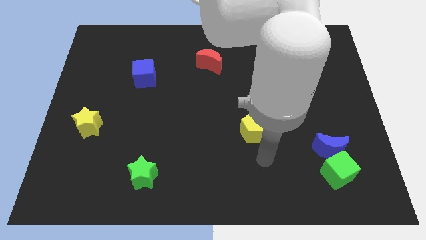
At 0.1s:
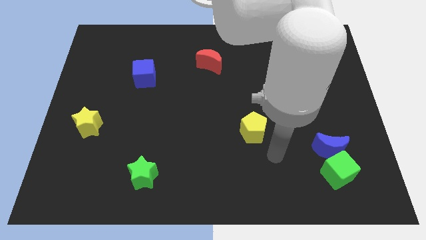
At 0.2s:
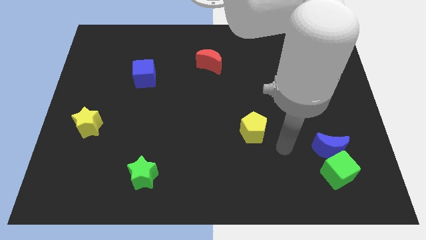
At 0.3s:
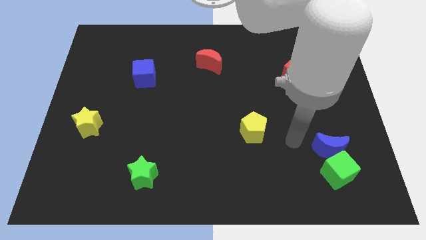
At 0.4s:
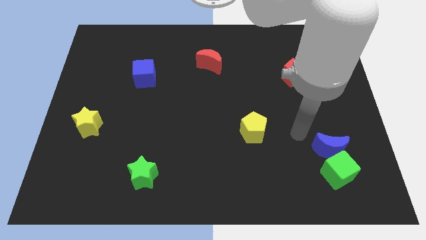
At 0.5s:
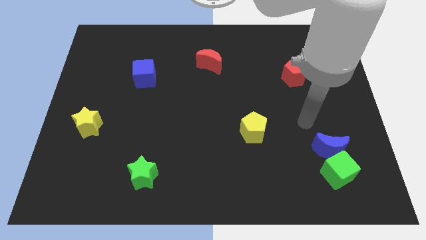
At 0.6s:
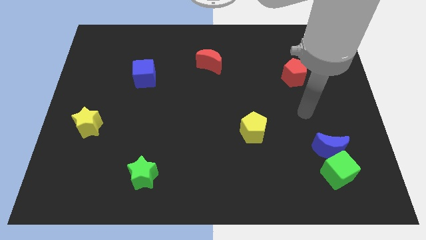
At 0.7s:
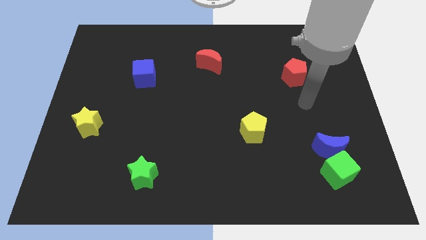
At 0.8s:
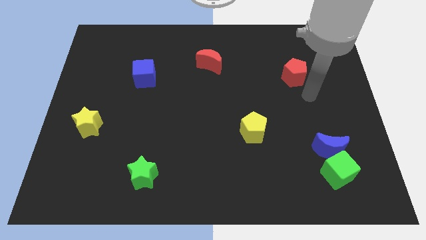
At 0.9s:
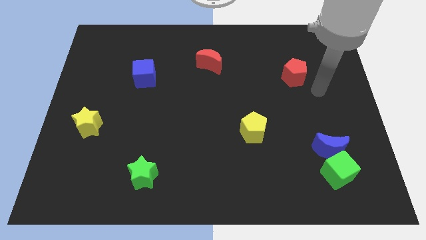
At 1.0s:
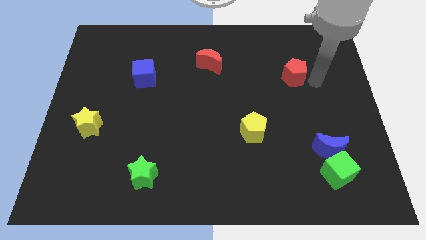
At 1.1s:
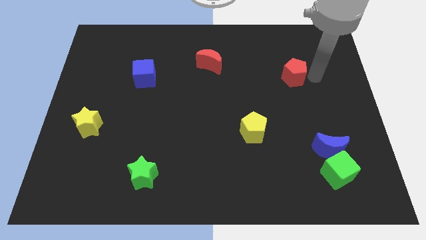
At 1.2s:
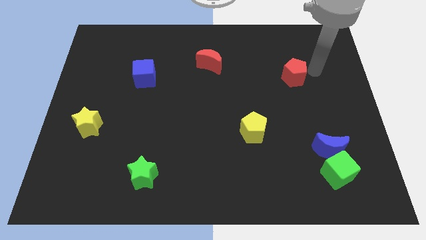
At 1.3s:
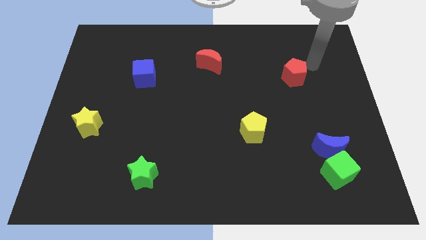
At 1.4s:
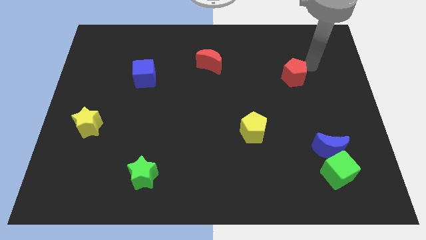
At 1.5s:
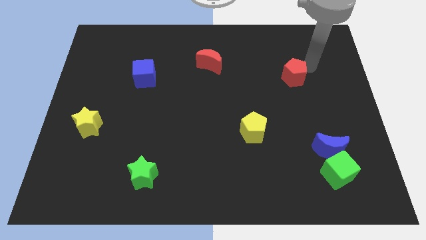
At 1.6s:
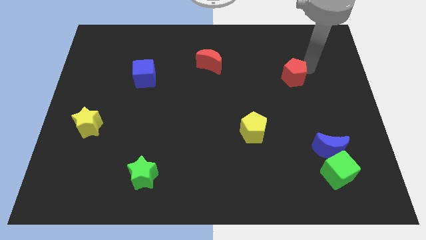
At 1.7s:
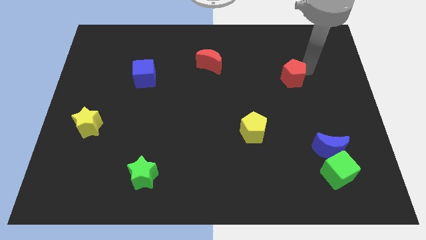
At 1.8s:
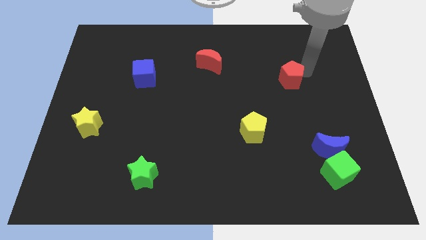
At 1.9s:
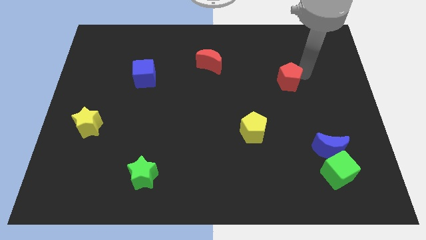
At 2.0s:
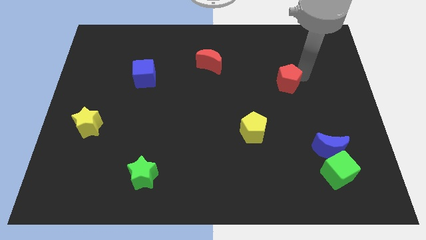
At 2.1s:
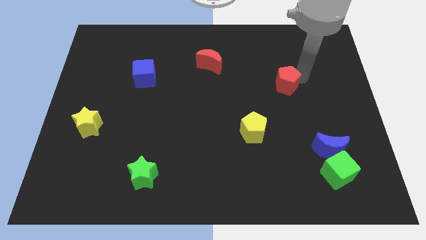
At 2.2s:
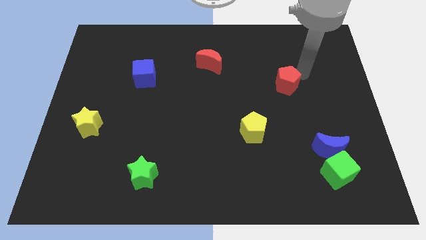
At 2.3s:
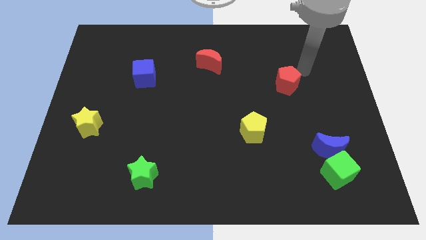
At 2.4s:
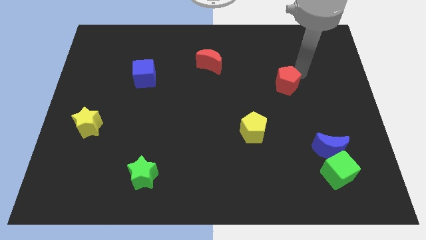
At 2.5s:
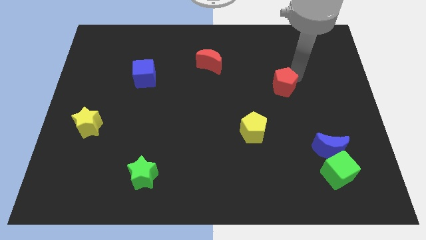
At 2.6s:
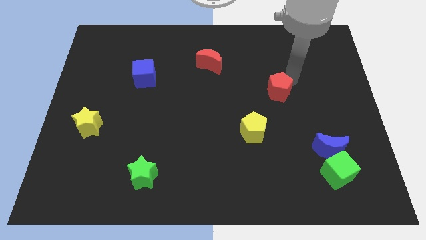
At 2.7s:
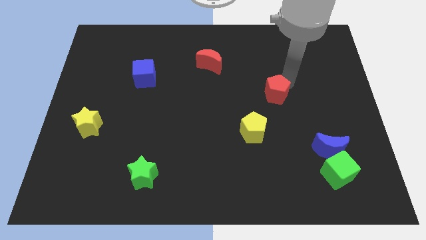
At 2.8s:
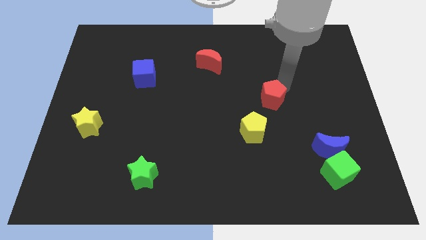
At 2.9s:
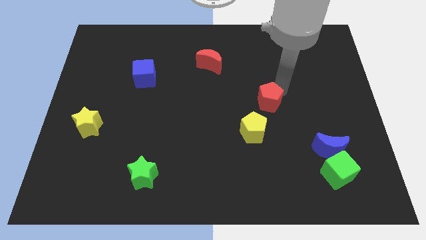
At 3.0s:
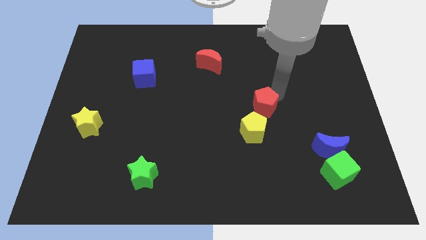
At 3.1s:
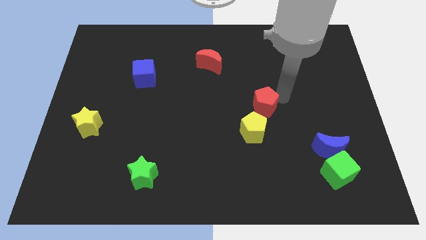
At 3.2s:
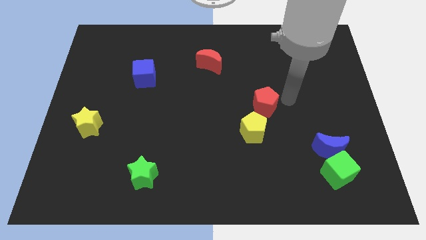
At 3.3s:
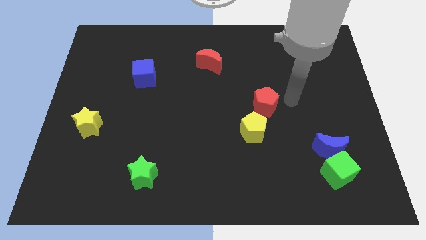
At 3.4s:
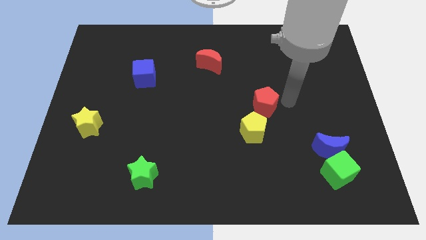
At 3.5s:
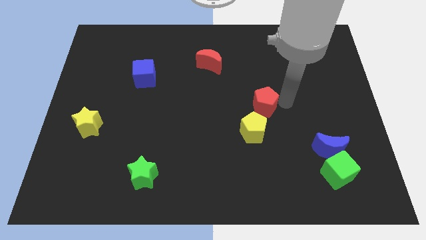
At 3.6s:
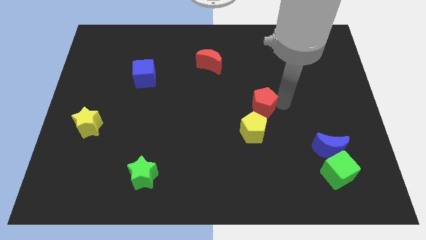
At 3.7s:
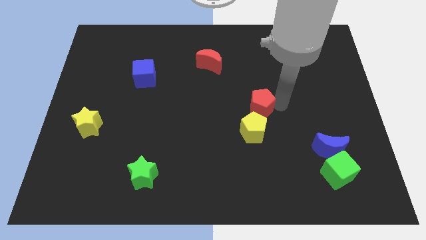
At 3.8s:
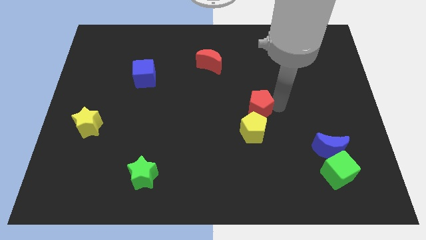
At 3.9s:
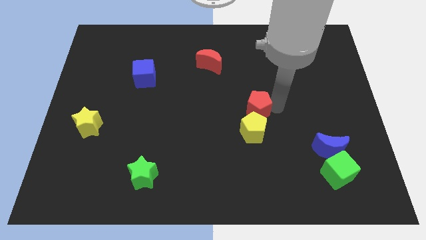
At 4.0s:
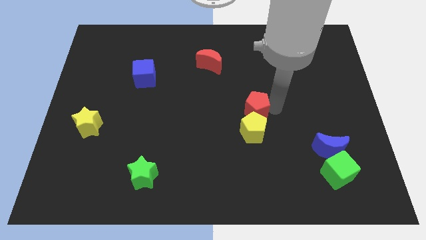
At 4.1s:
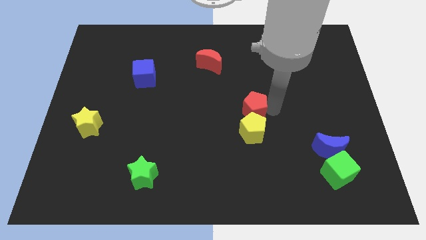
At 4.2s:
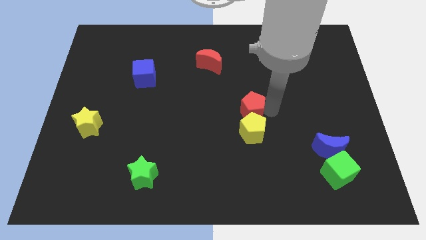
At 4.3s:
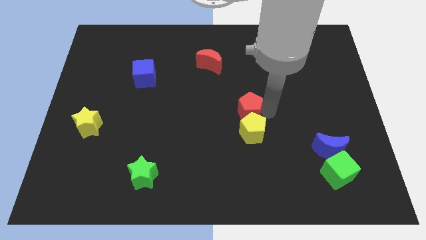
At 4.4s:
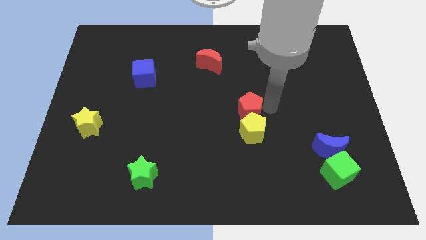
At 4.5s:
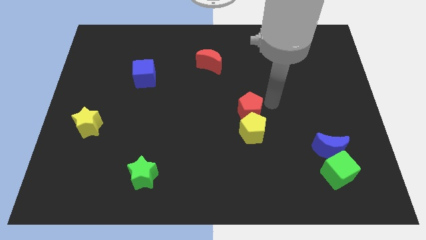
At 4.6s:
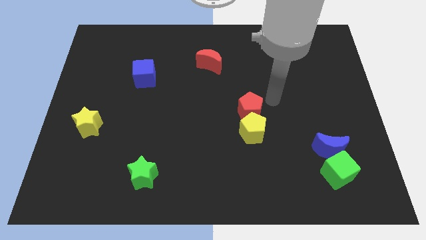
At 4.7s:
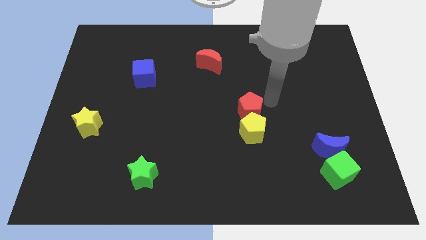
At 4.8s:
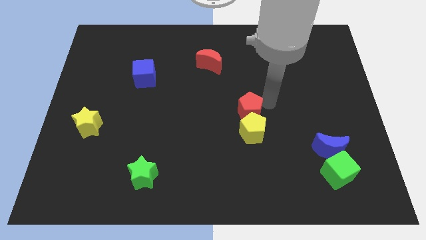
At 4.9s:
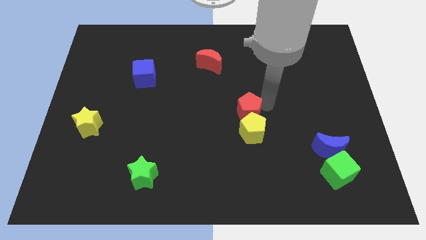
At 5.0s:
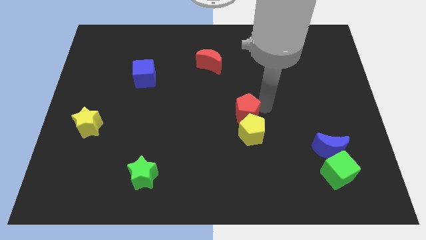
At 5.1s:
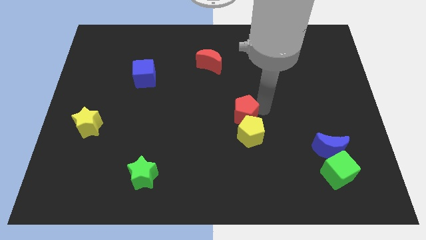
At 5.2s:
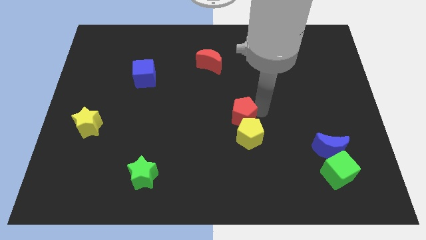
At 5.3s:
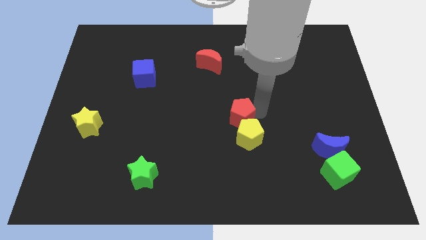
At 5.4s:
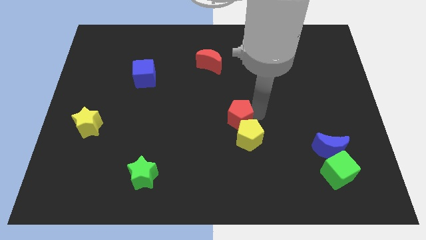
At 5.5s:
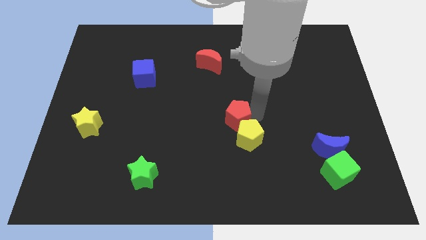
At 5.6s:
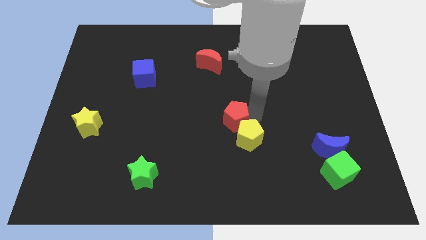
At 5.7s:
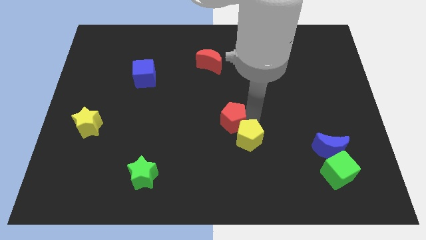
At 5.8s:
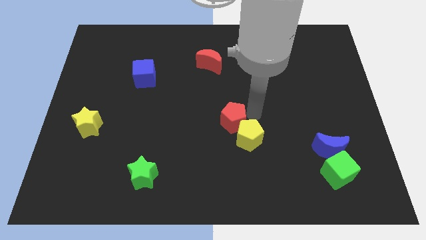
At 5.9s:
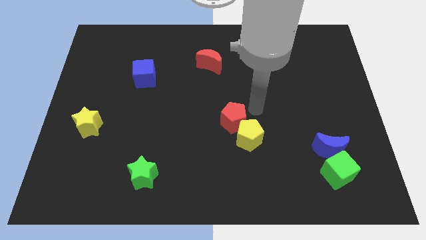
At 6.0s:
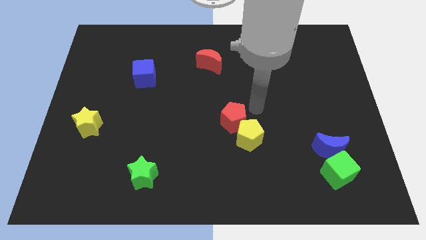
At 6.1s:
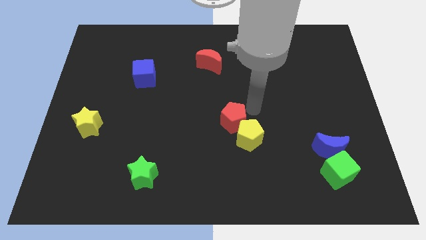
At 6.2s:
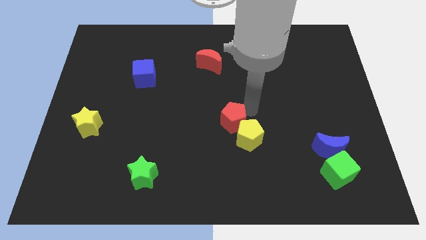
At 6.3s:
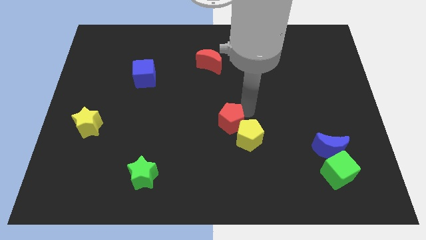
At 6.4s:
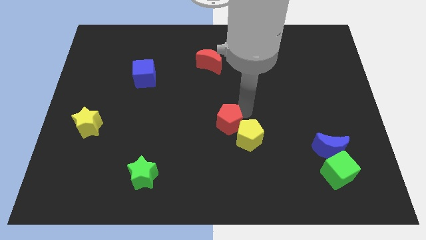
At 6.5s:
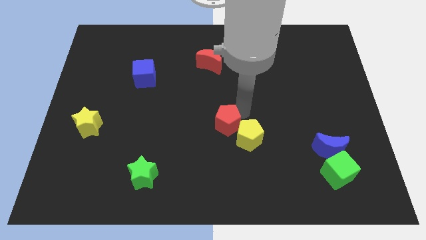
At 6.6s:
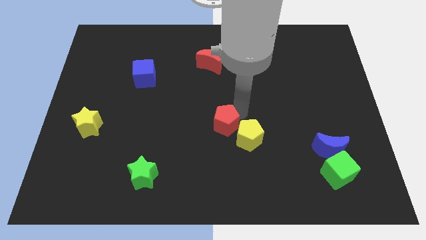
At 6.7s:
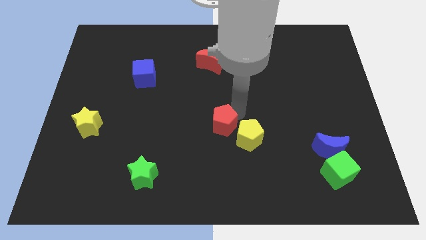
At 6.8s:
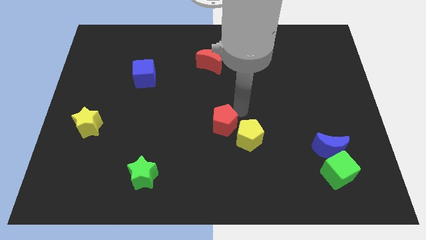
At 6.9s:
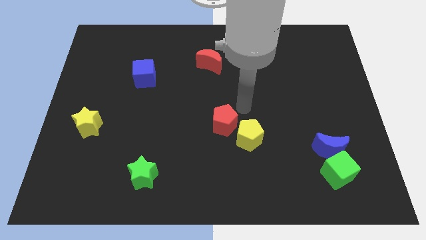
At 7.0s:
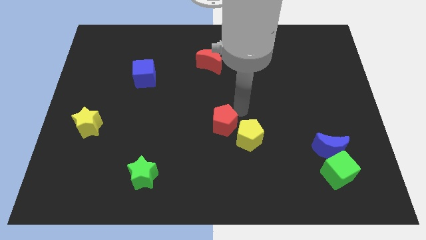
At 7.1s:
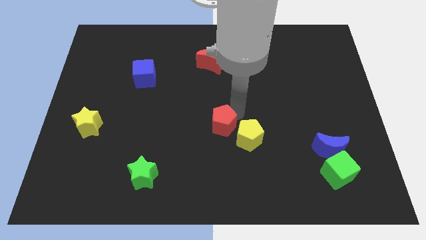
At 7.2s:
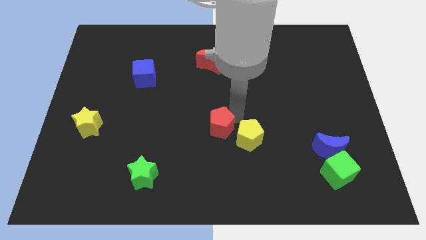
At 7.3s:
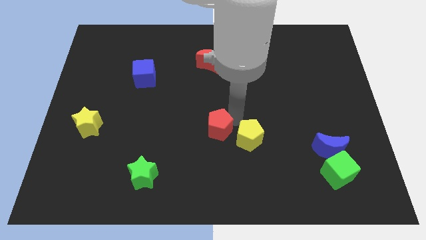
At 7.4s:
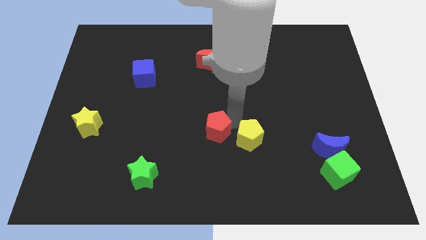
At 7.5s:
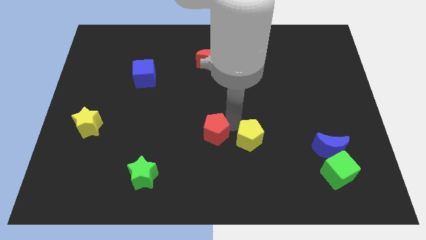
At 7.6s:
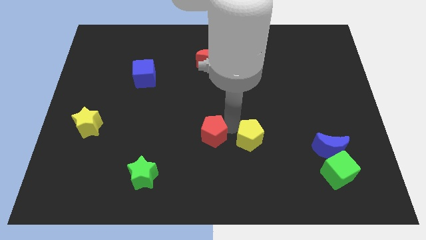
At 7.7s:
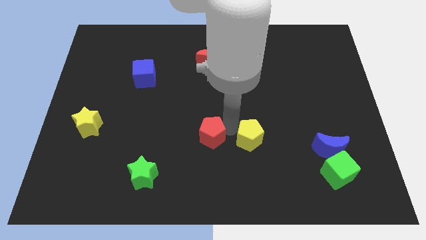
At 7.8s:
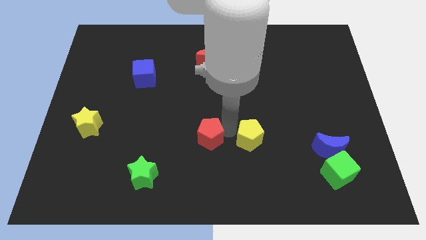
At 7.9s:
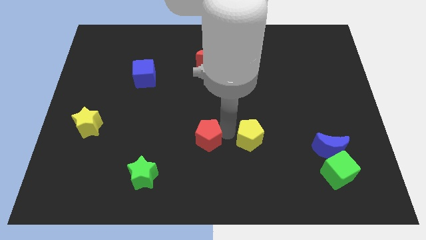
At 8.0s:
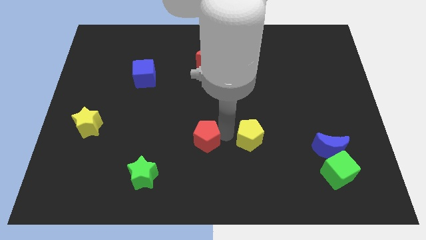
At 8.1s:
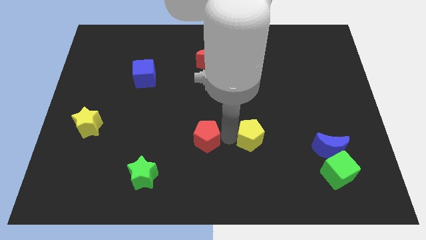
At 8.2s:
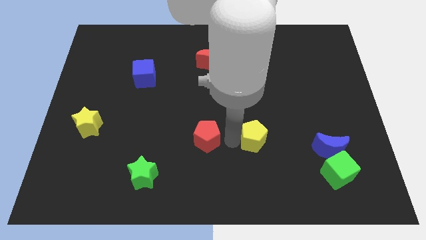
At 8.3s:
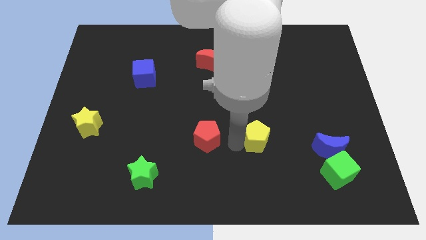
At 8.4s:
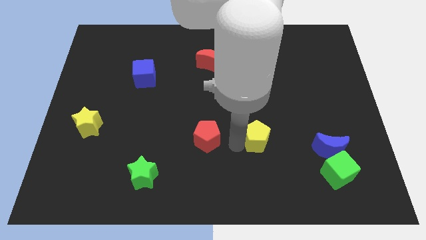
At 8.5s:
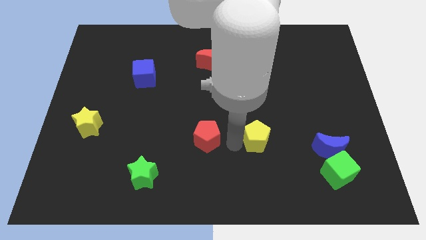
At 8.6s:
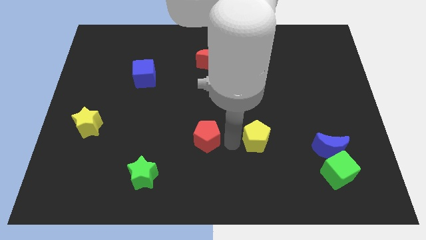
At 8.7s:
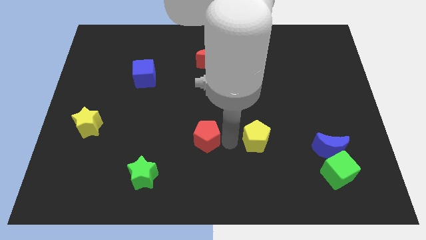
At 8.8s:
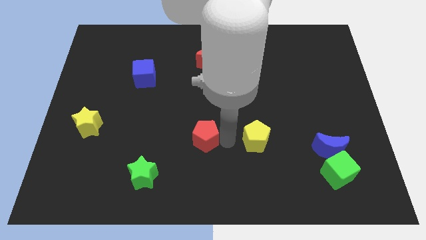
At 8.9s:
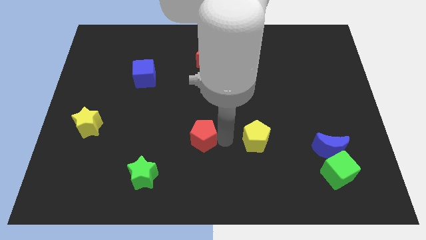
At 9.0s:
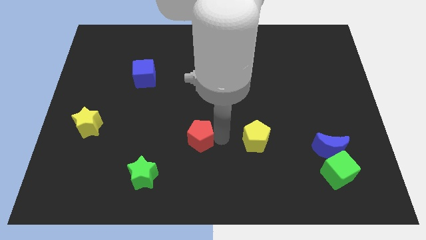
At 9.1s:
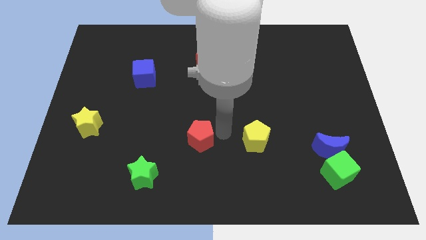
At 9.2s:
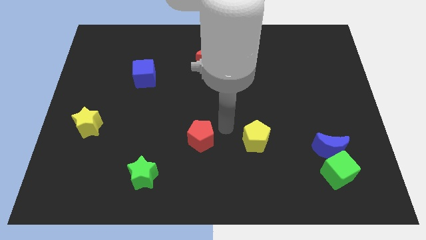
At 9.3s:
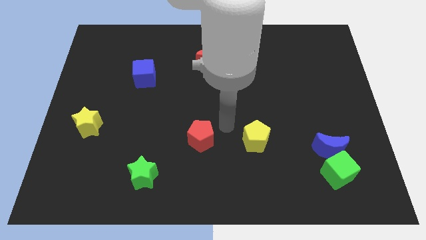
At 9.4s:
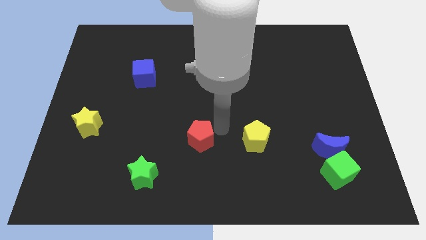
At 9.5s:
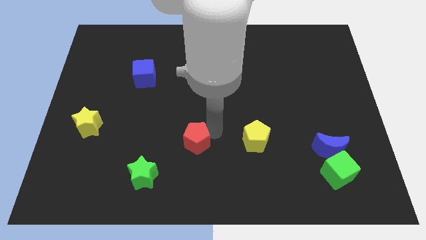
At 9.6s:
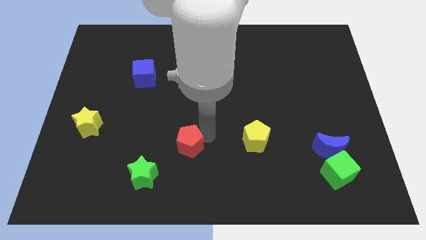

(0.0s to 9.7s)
slide the red pentagon to the top right of the green star
